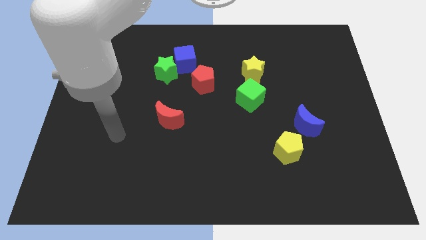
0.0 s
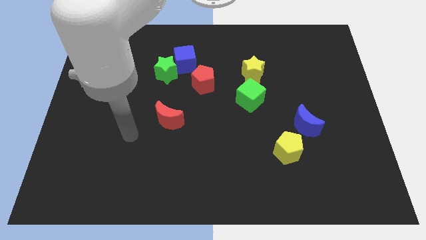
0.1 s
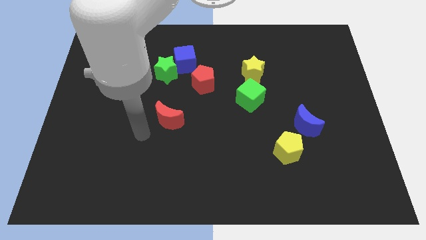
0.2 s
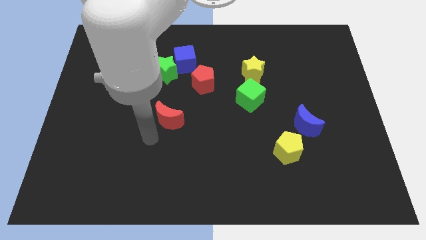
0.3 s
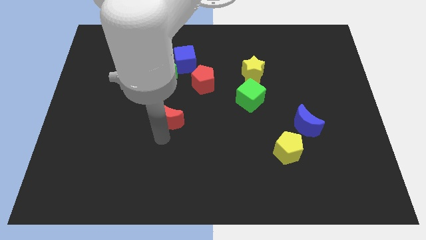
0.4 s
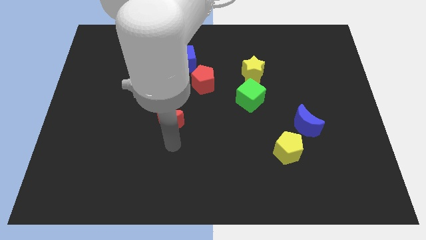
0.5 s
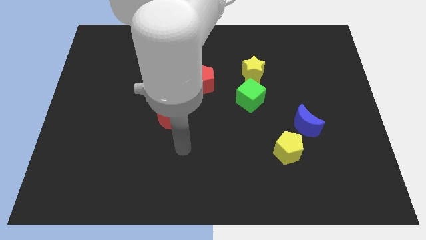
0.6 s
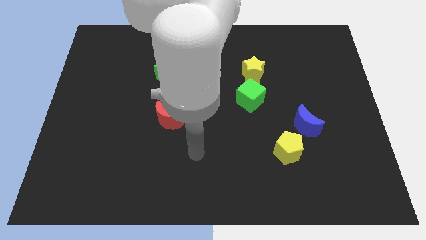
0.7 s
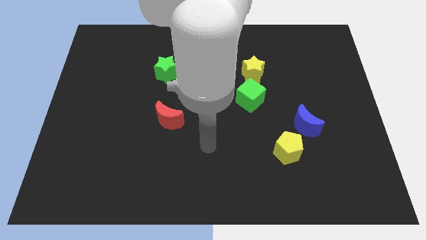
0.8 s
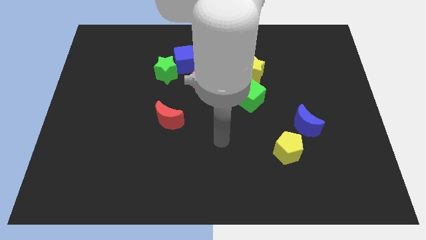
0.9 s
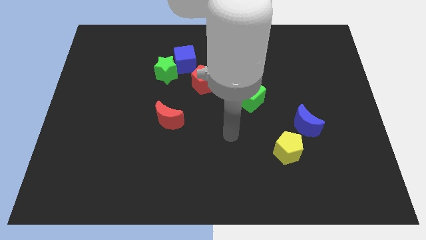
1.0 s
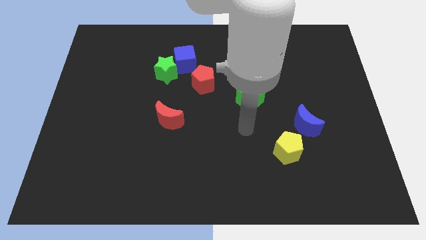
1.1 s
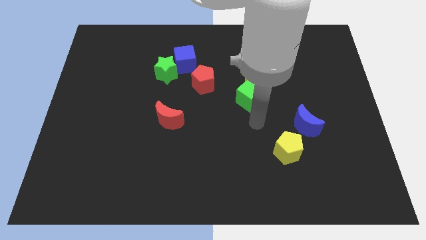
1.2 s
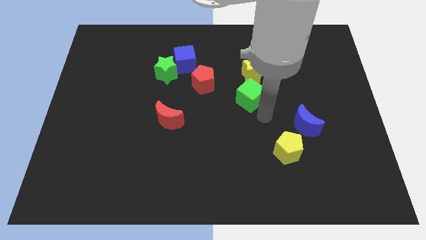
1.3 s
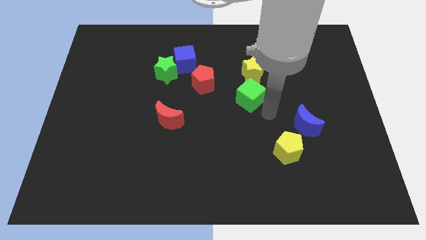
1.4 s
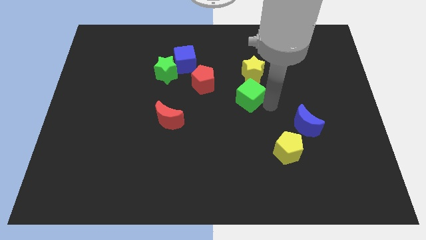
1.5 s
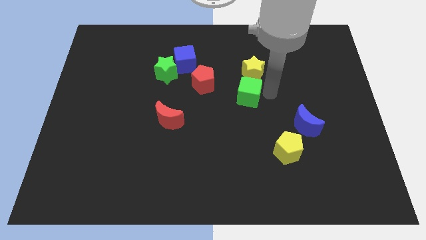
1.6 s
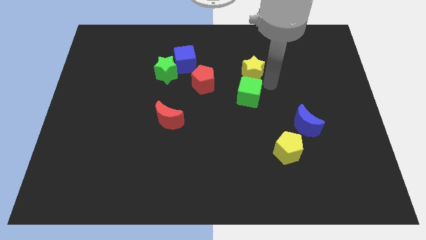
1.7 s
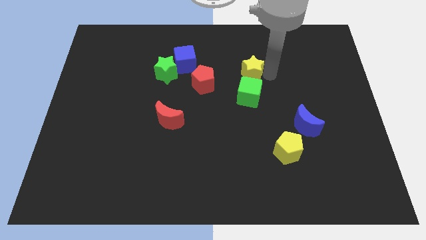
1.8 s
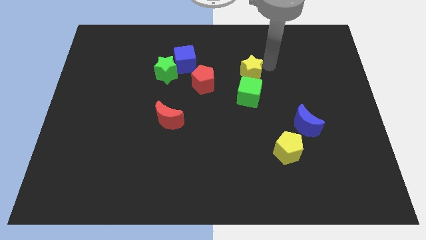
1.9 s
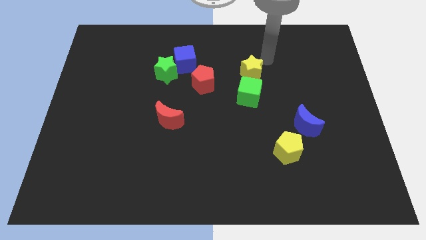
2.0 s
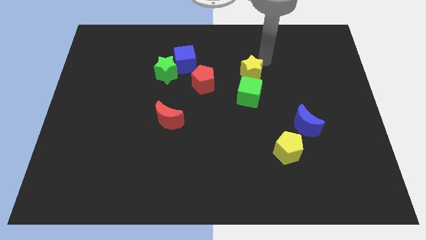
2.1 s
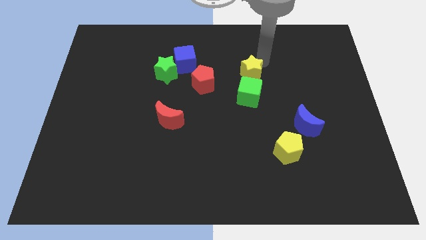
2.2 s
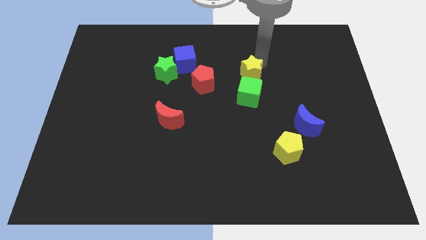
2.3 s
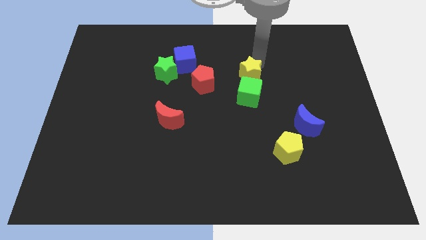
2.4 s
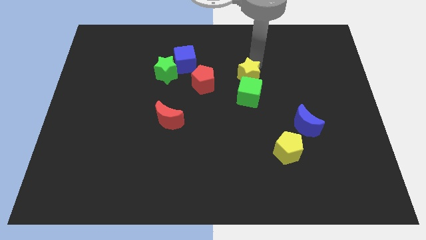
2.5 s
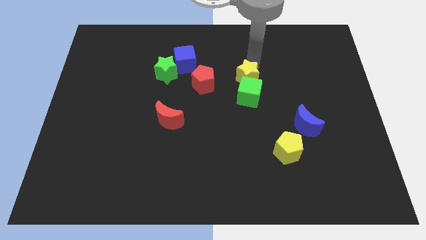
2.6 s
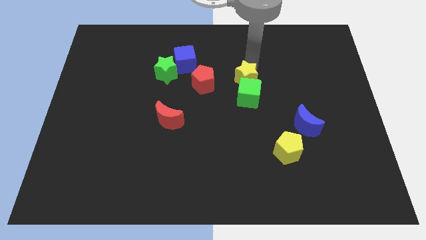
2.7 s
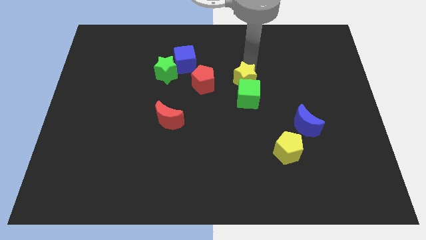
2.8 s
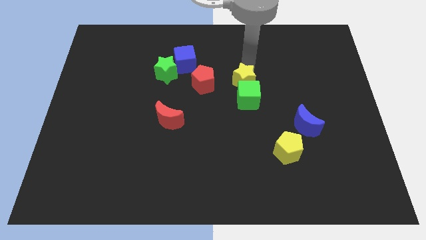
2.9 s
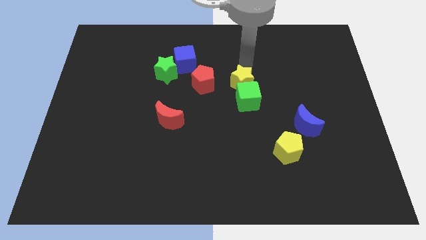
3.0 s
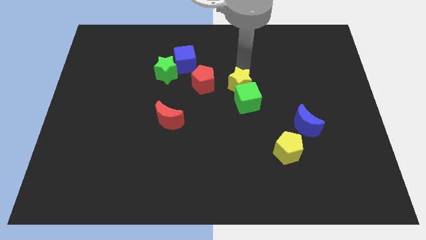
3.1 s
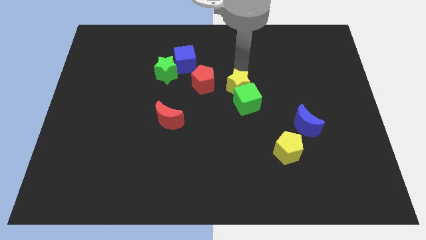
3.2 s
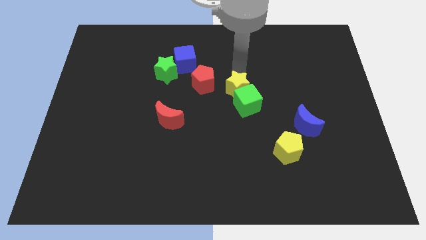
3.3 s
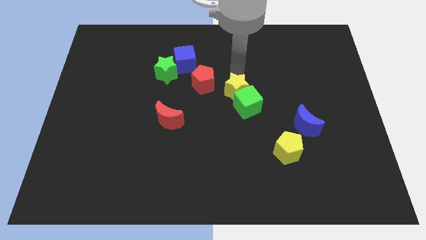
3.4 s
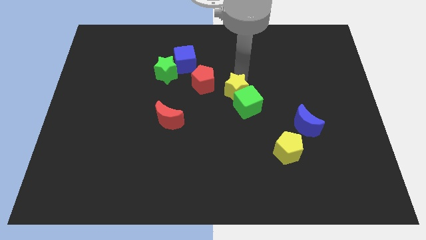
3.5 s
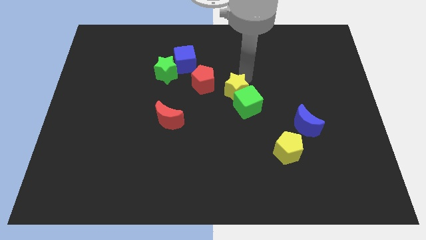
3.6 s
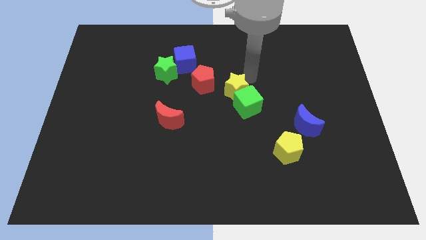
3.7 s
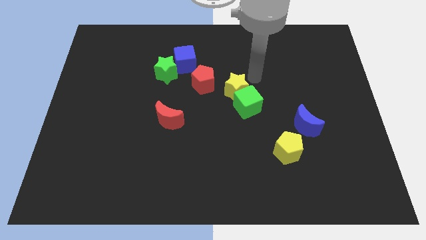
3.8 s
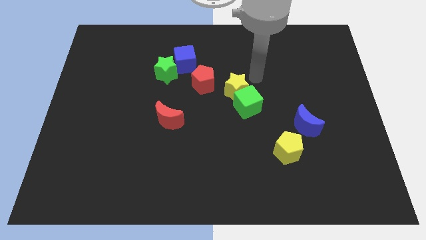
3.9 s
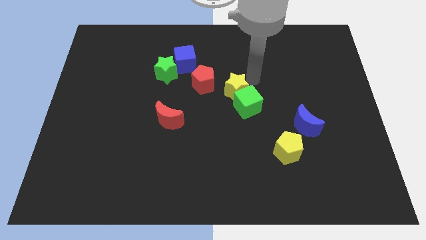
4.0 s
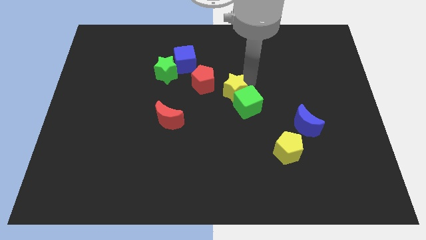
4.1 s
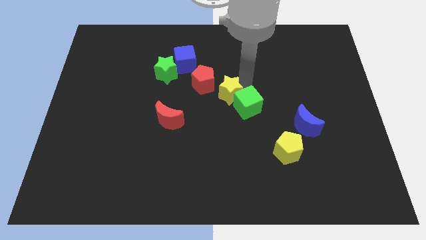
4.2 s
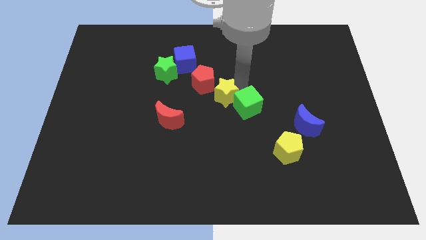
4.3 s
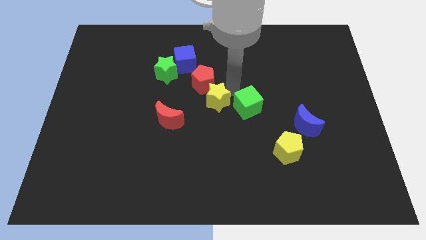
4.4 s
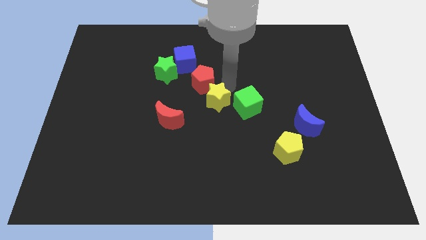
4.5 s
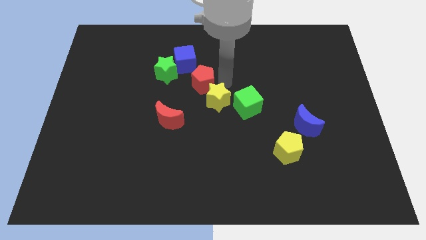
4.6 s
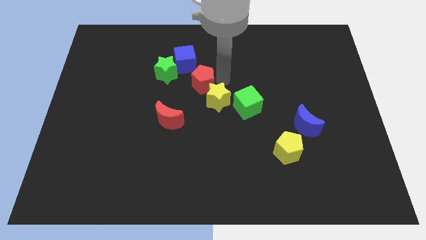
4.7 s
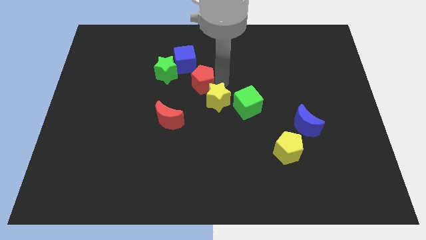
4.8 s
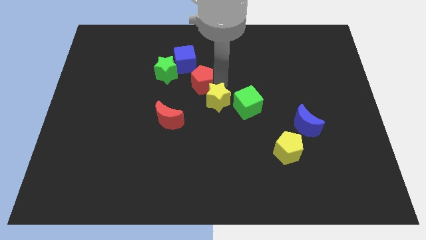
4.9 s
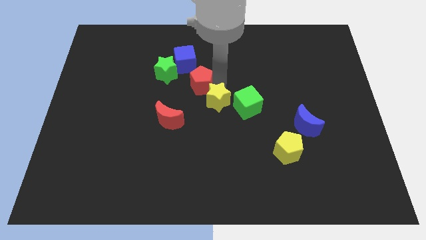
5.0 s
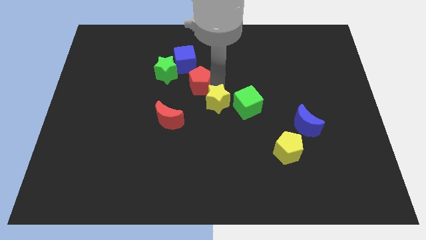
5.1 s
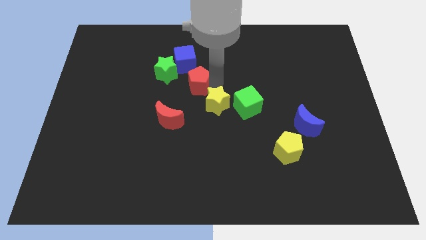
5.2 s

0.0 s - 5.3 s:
slide the yellow star to the right side of the red moon

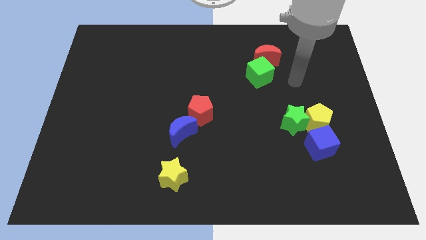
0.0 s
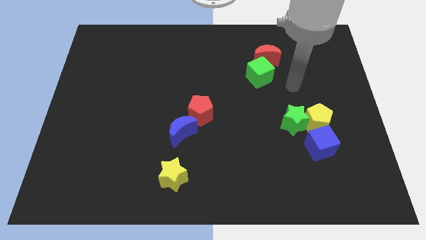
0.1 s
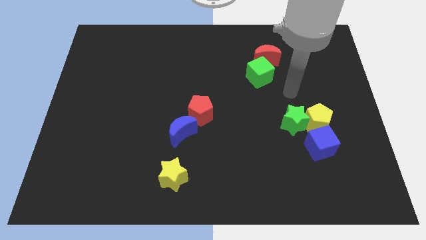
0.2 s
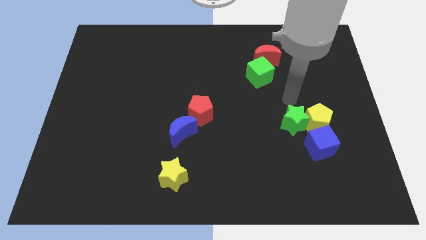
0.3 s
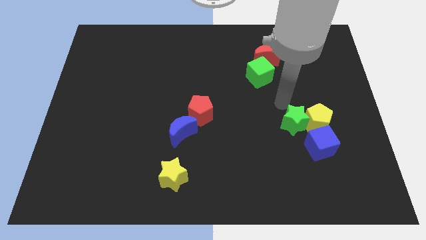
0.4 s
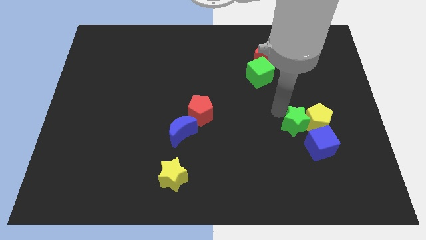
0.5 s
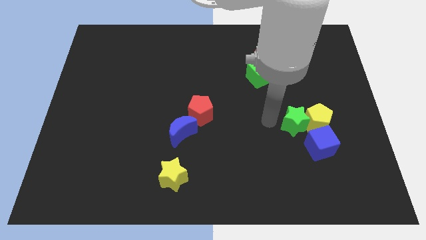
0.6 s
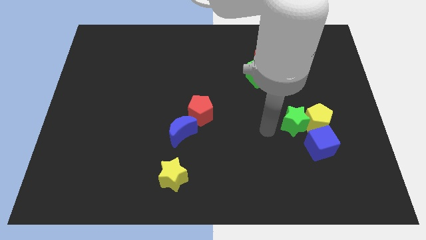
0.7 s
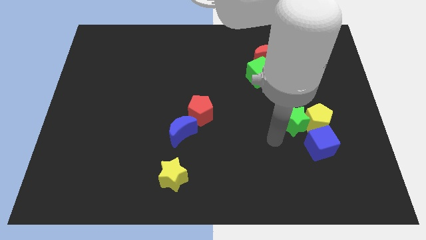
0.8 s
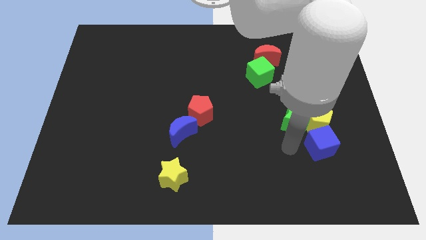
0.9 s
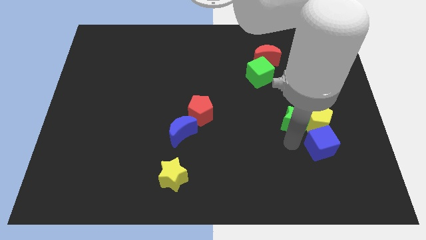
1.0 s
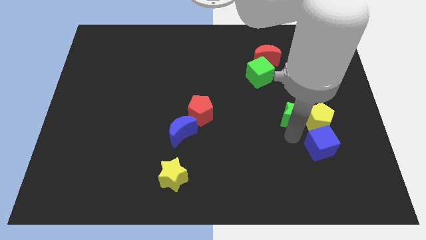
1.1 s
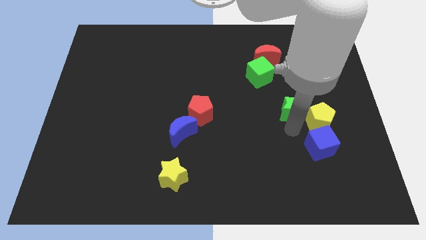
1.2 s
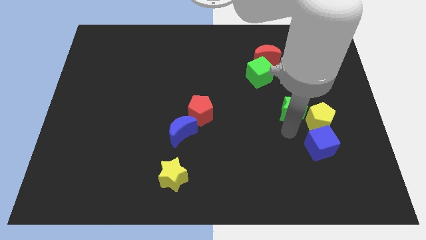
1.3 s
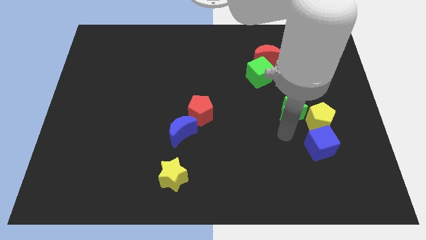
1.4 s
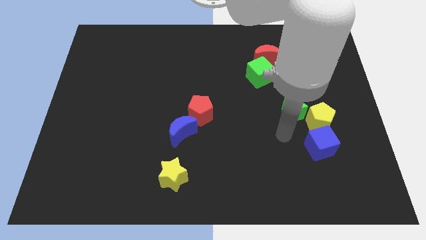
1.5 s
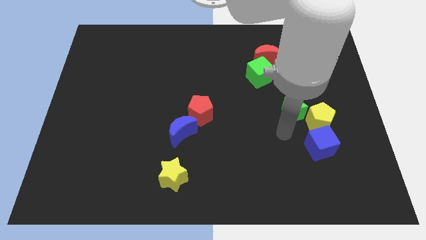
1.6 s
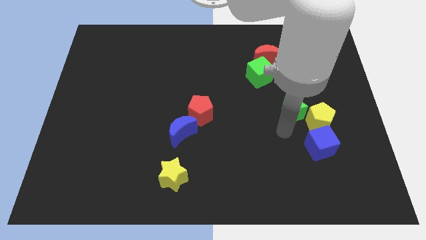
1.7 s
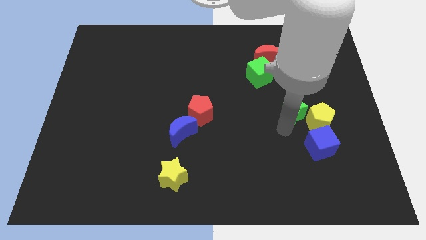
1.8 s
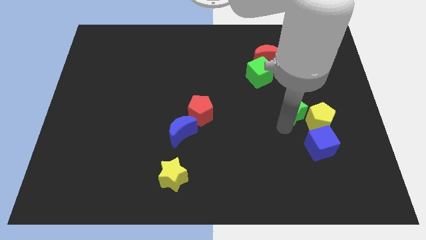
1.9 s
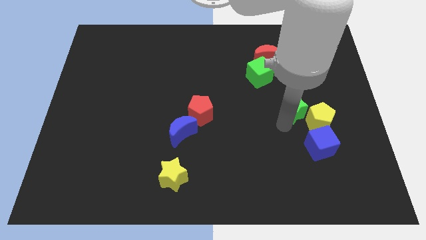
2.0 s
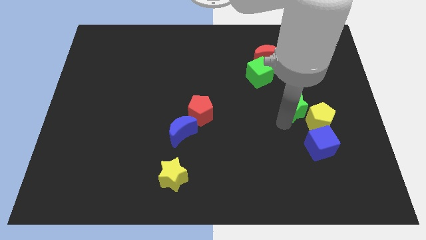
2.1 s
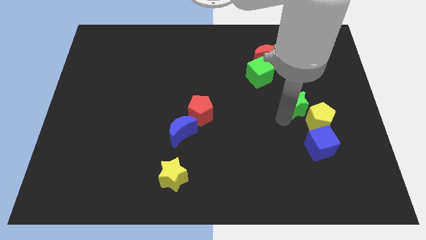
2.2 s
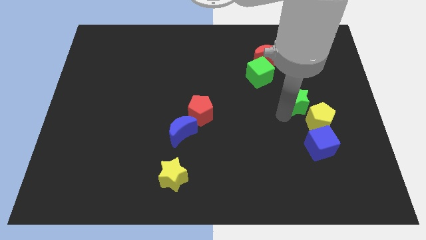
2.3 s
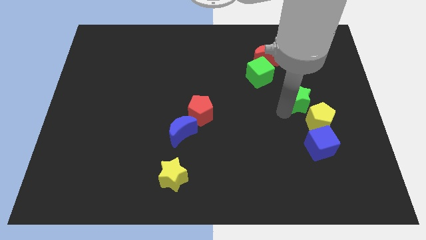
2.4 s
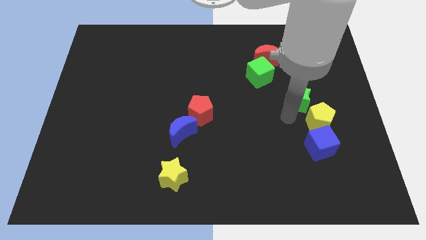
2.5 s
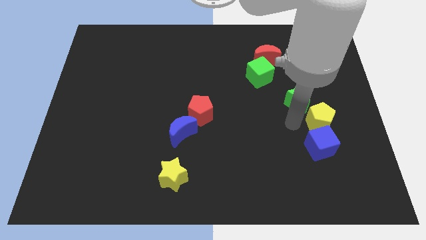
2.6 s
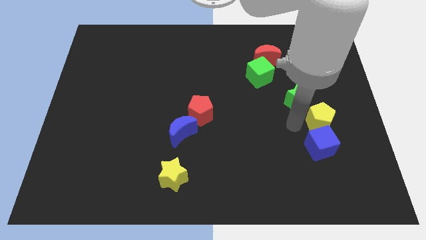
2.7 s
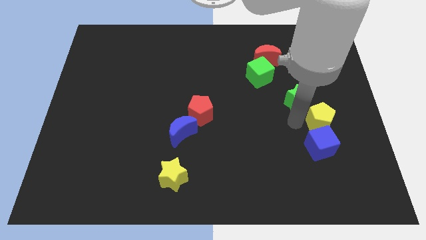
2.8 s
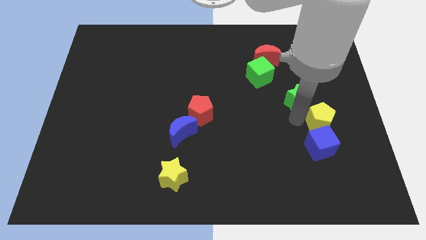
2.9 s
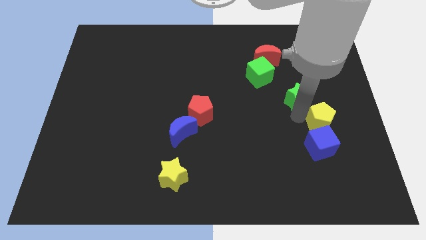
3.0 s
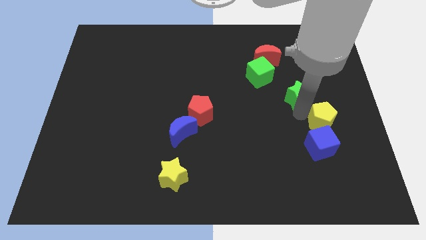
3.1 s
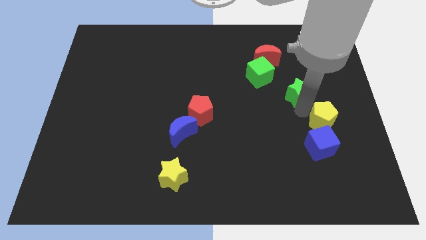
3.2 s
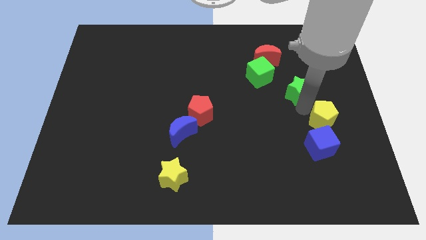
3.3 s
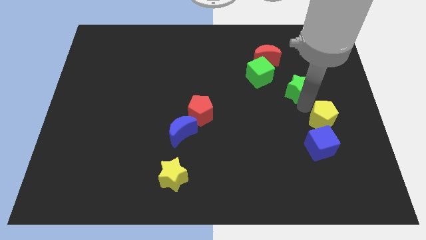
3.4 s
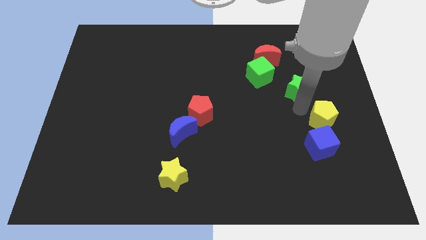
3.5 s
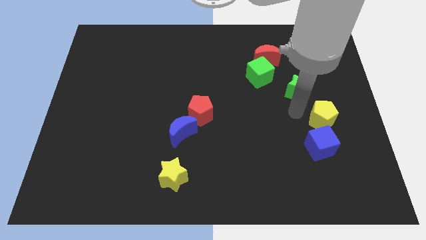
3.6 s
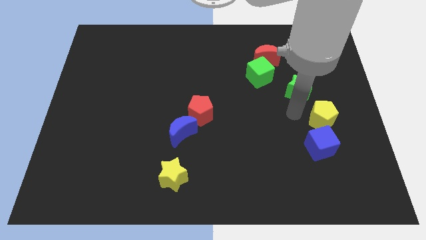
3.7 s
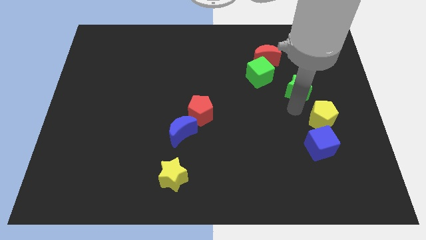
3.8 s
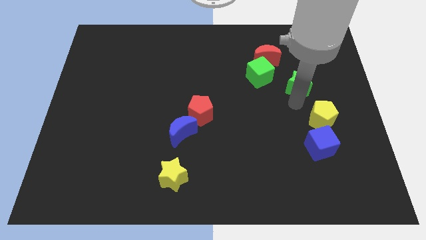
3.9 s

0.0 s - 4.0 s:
move the green star just right of the green cube
